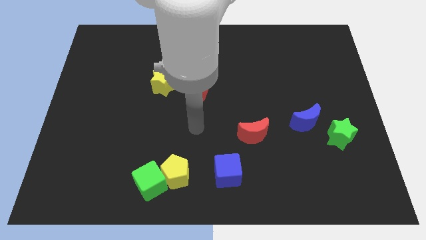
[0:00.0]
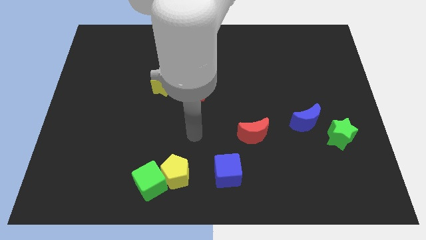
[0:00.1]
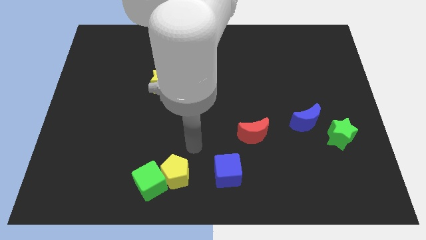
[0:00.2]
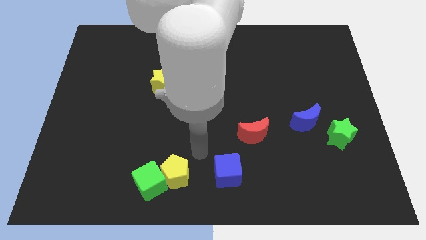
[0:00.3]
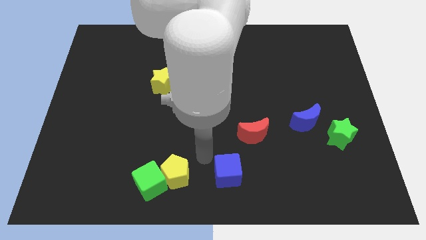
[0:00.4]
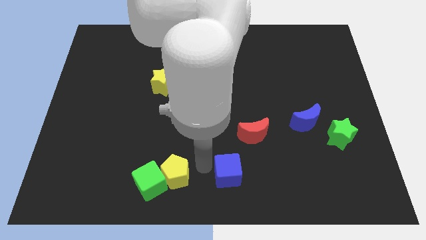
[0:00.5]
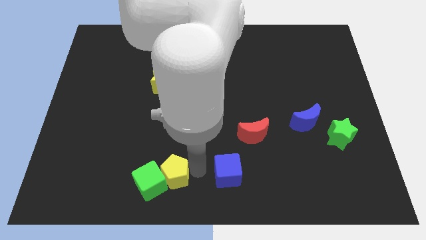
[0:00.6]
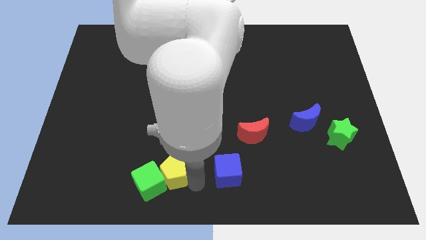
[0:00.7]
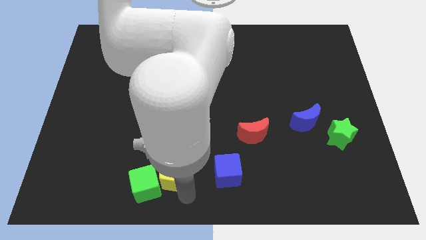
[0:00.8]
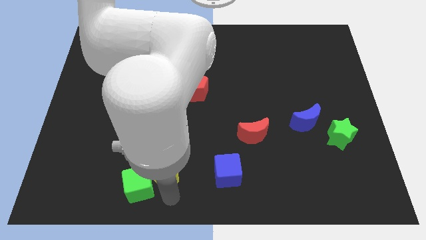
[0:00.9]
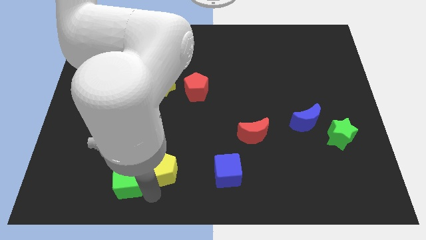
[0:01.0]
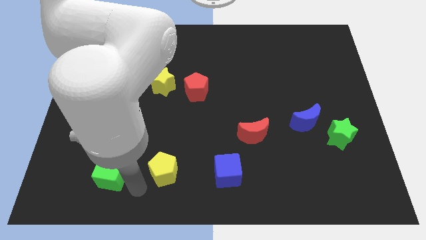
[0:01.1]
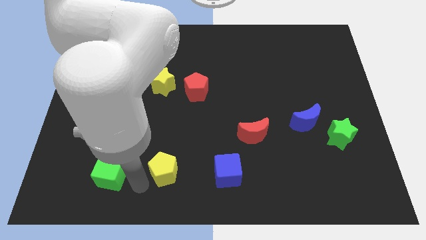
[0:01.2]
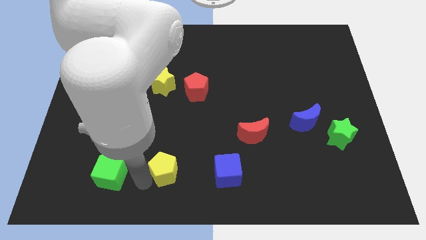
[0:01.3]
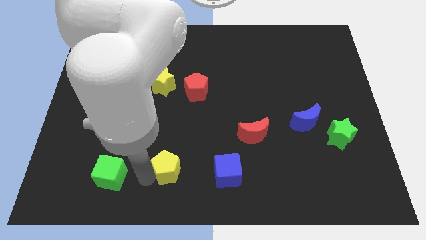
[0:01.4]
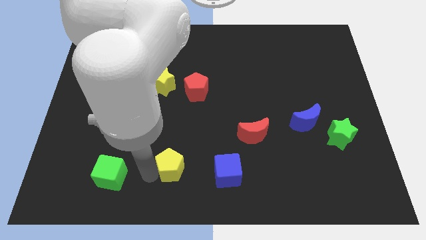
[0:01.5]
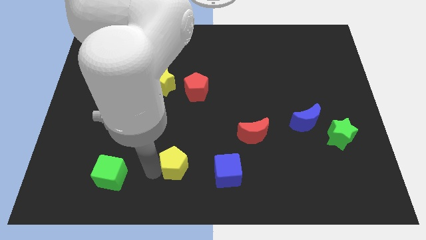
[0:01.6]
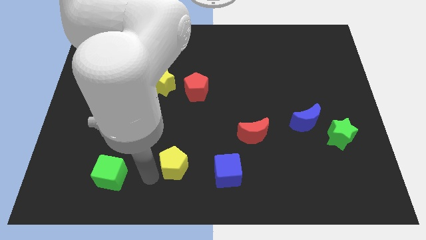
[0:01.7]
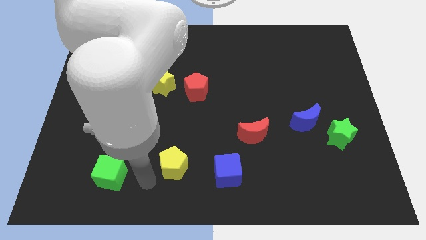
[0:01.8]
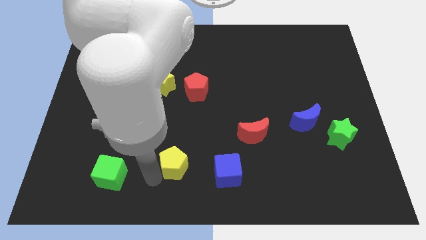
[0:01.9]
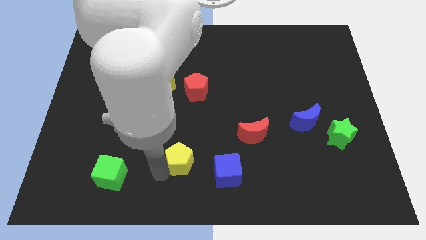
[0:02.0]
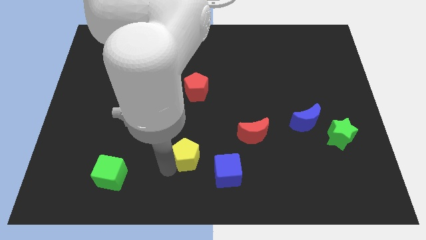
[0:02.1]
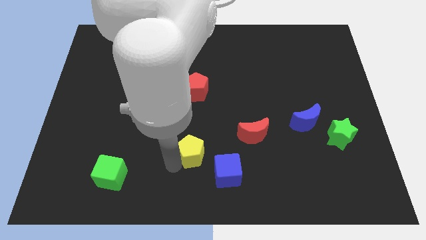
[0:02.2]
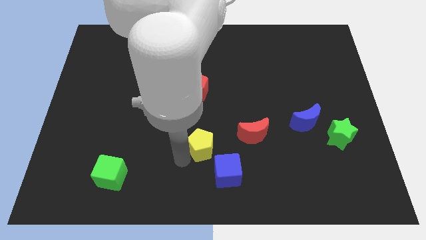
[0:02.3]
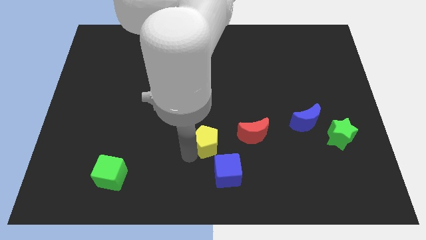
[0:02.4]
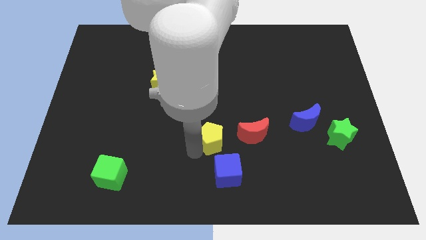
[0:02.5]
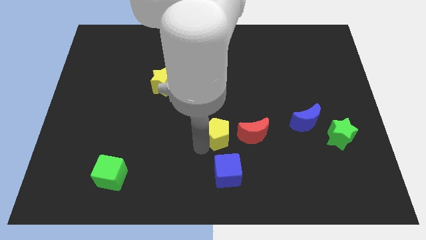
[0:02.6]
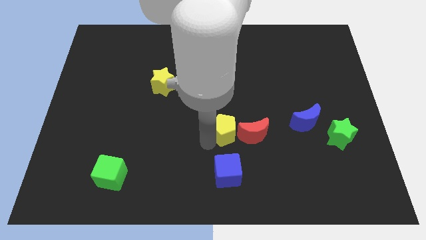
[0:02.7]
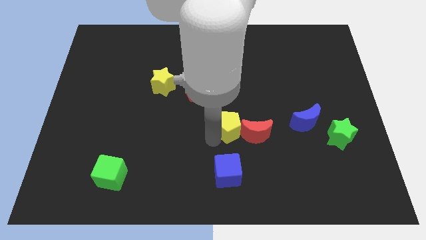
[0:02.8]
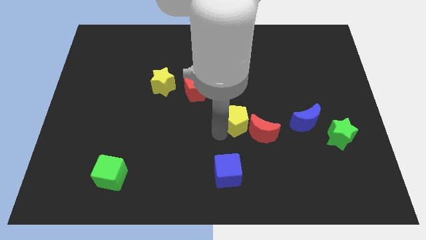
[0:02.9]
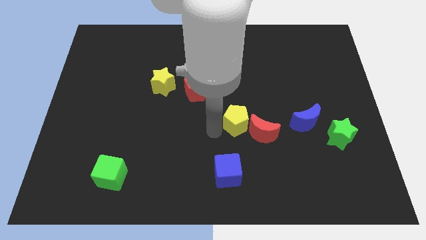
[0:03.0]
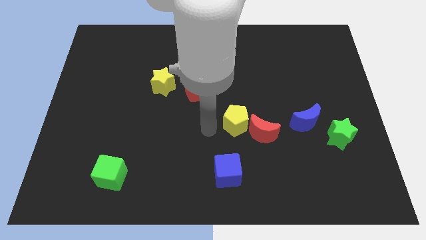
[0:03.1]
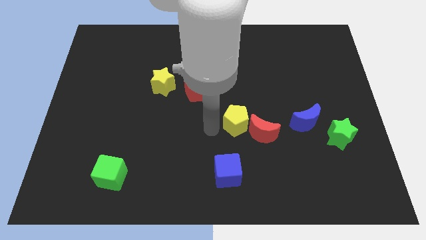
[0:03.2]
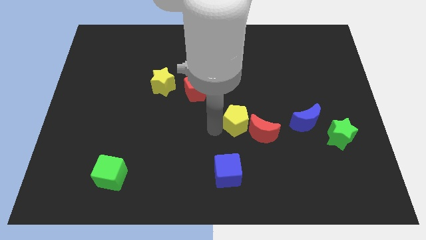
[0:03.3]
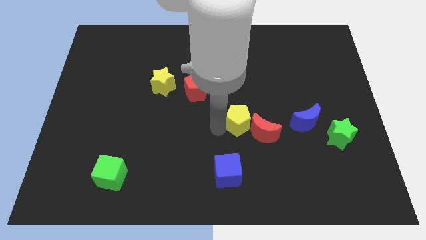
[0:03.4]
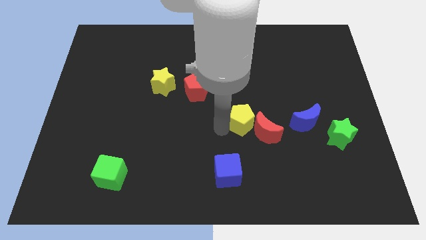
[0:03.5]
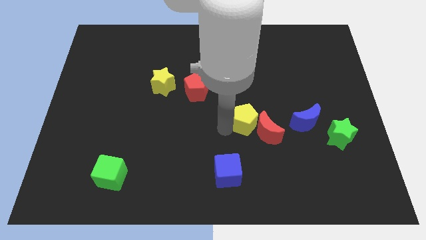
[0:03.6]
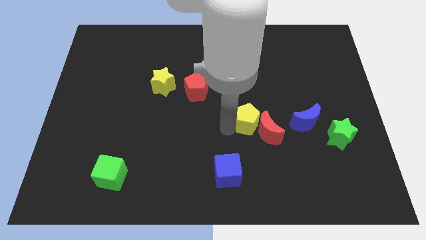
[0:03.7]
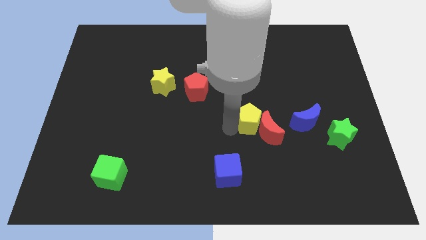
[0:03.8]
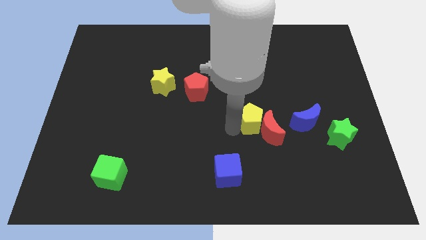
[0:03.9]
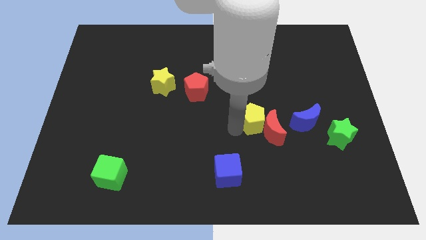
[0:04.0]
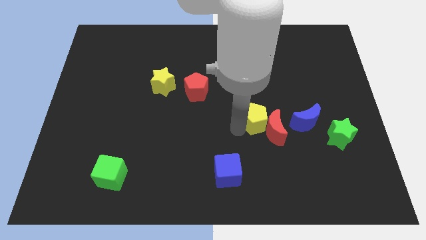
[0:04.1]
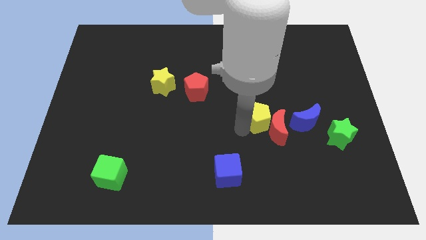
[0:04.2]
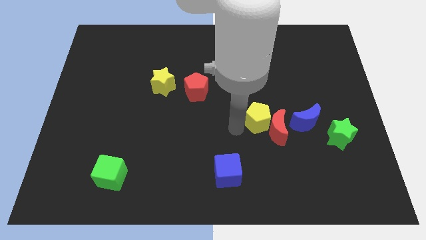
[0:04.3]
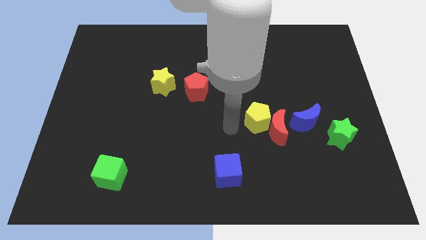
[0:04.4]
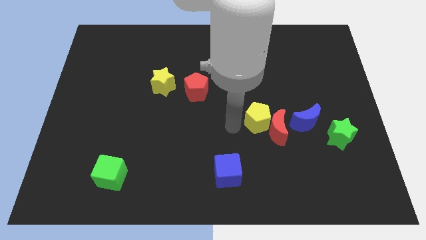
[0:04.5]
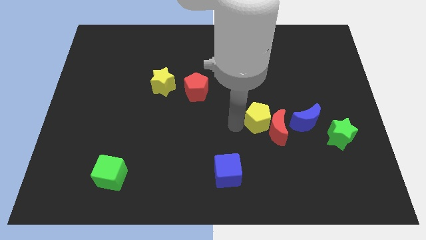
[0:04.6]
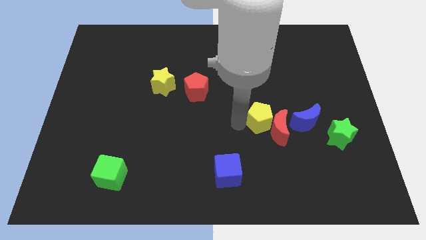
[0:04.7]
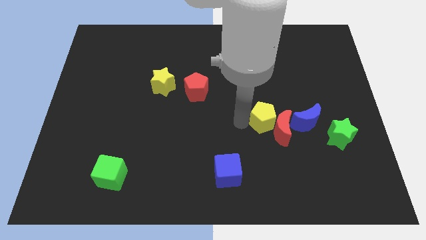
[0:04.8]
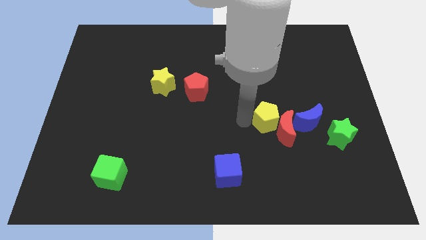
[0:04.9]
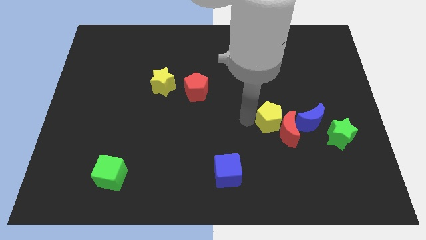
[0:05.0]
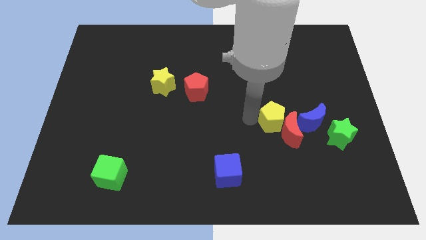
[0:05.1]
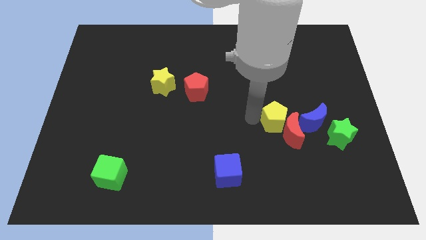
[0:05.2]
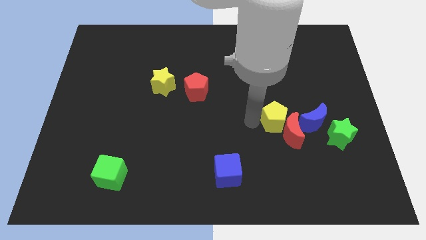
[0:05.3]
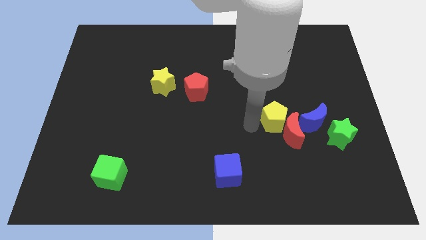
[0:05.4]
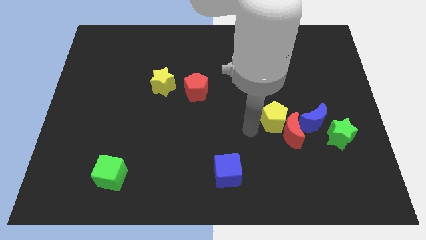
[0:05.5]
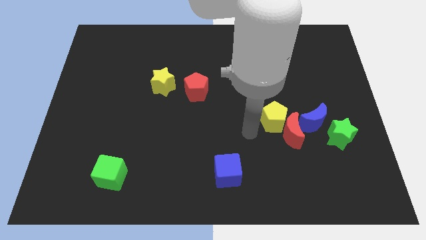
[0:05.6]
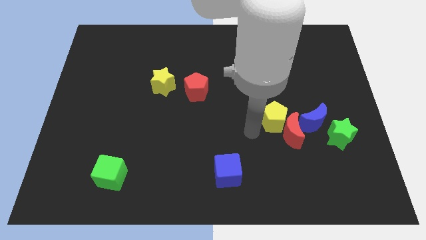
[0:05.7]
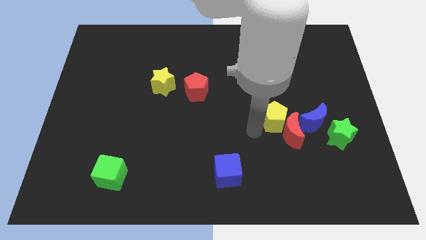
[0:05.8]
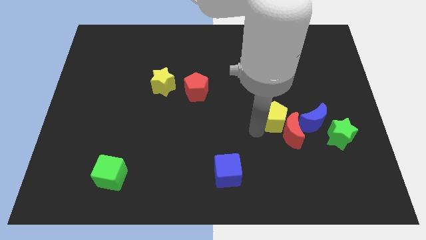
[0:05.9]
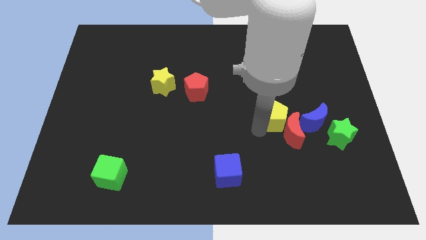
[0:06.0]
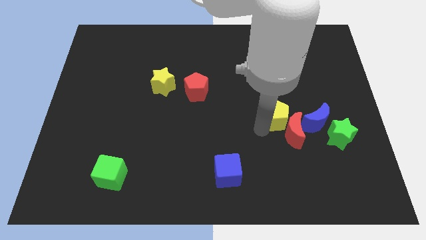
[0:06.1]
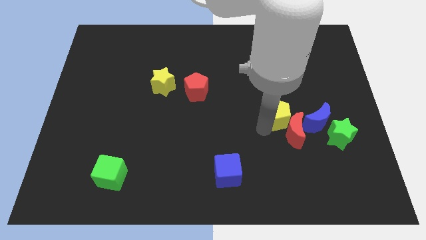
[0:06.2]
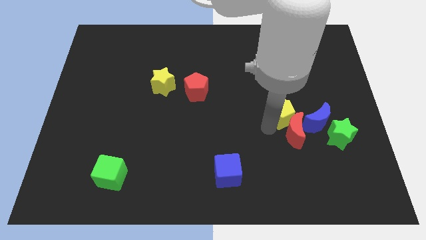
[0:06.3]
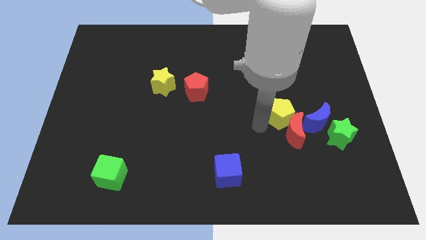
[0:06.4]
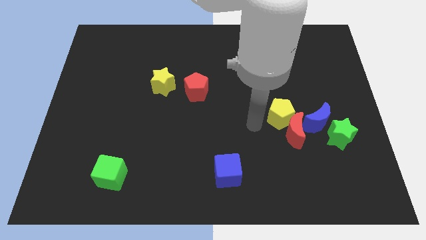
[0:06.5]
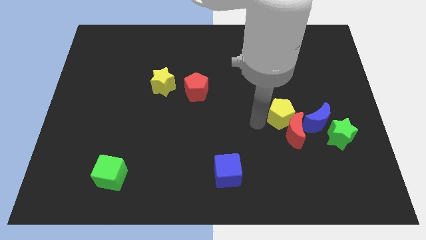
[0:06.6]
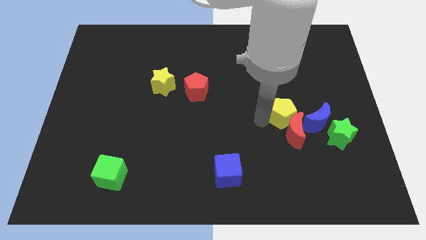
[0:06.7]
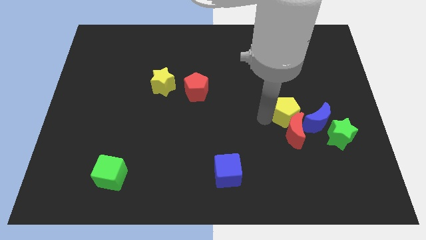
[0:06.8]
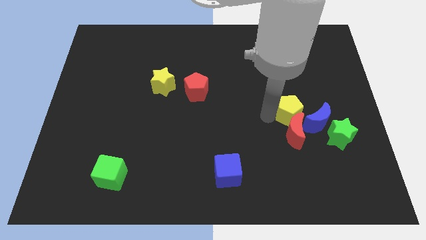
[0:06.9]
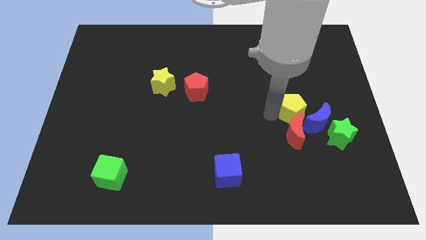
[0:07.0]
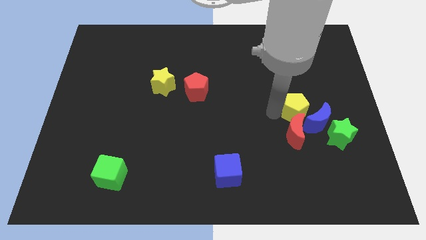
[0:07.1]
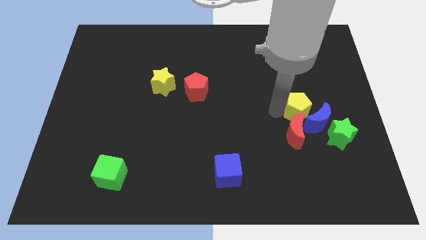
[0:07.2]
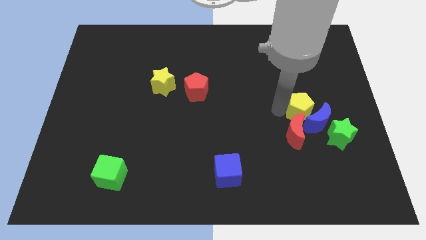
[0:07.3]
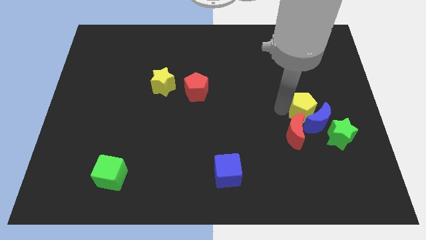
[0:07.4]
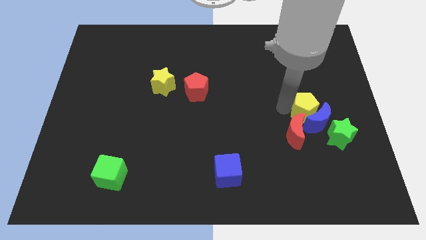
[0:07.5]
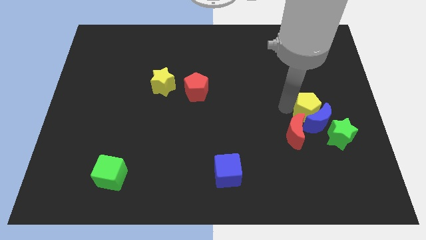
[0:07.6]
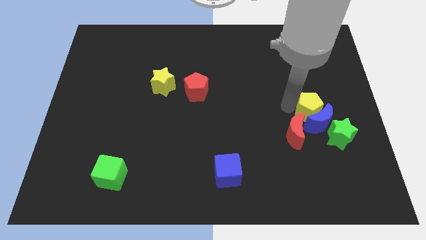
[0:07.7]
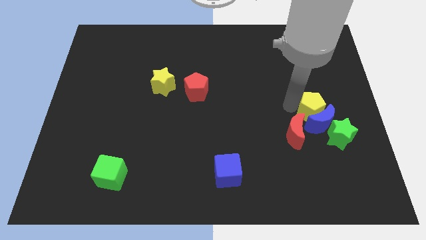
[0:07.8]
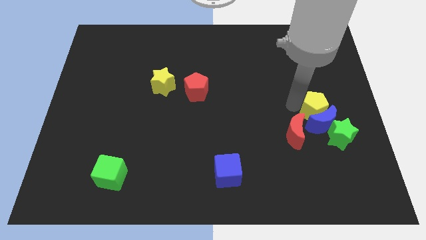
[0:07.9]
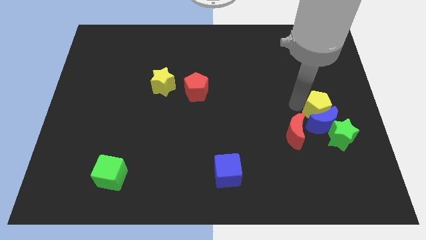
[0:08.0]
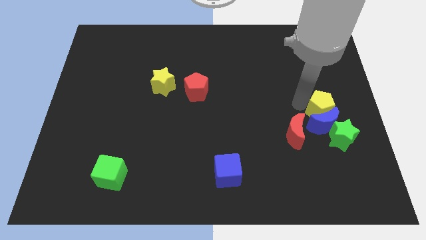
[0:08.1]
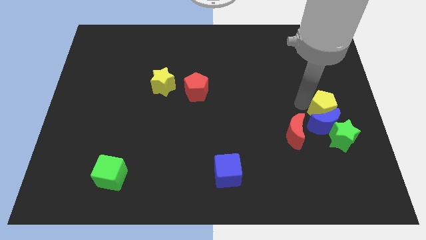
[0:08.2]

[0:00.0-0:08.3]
slide the yellow pentagon to the center right
